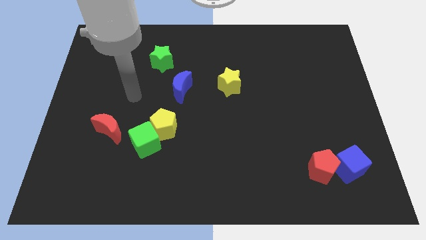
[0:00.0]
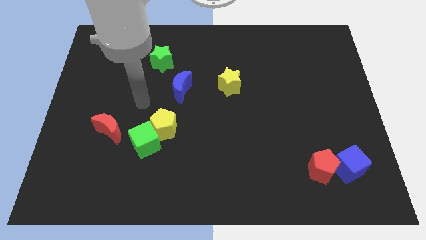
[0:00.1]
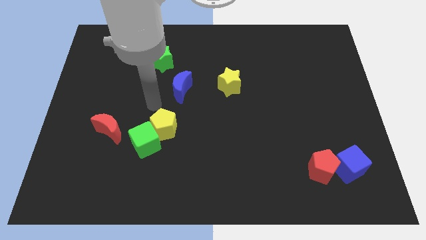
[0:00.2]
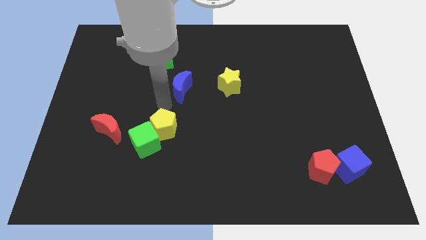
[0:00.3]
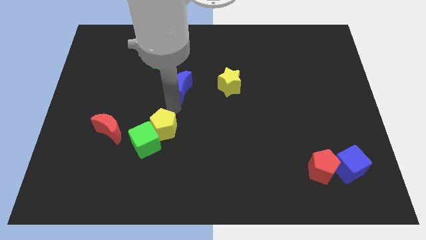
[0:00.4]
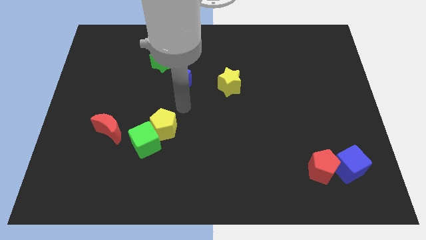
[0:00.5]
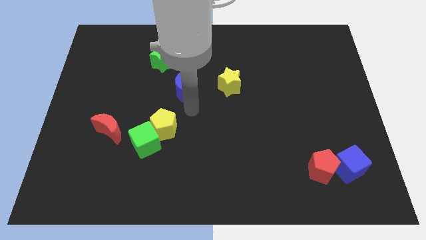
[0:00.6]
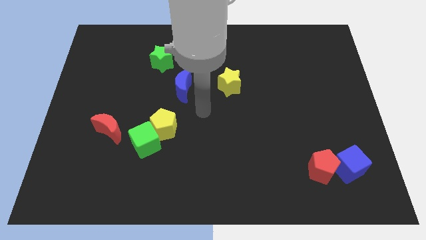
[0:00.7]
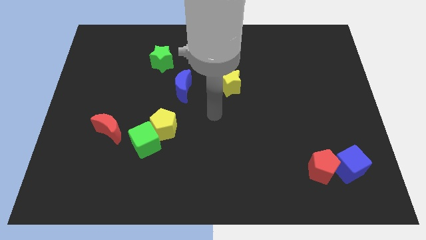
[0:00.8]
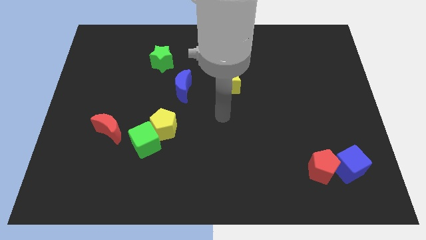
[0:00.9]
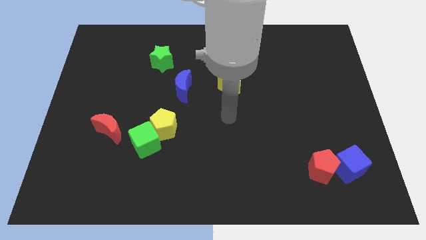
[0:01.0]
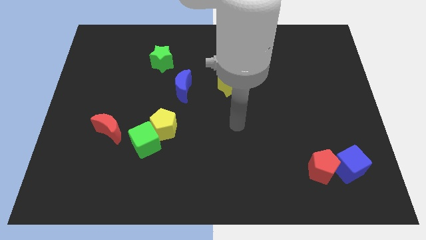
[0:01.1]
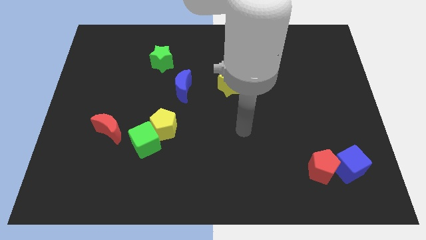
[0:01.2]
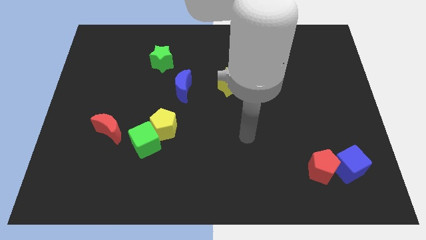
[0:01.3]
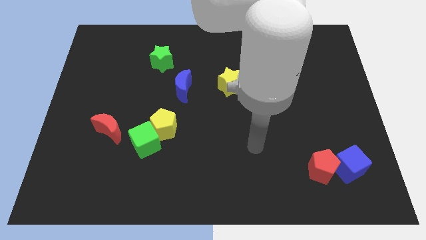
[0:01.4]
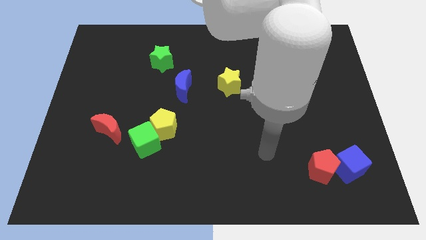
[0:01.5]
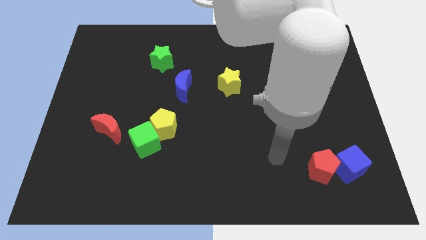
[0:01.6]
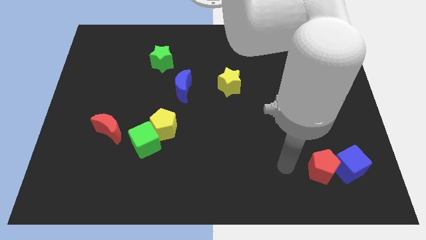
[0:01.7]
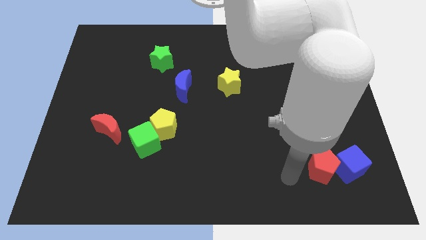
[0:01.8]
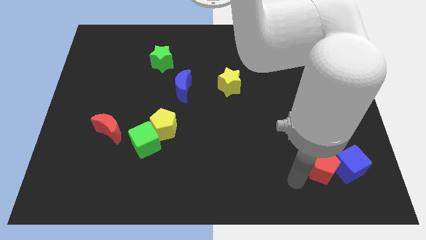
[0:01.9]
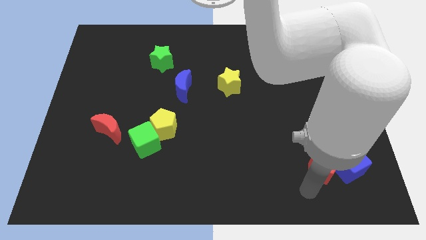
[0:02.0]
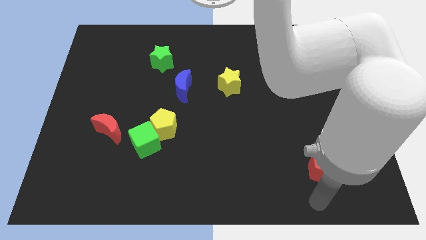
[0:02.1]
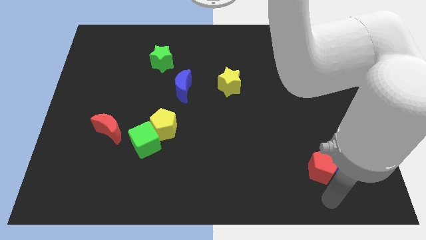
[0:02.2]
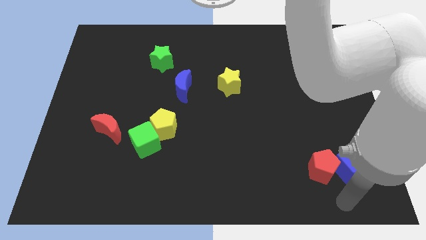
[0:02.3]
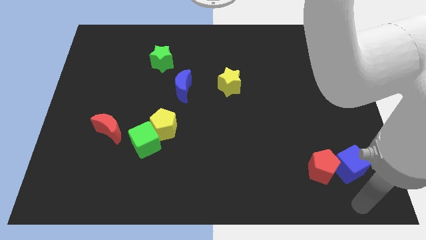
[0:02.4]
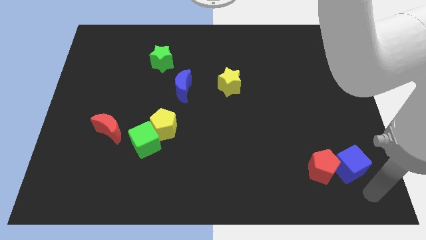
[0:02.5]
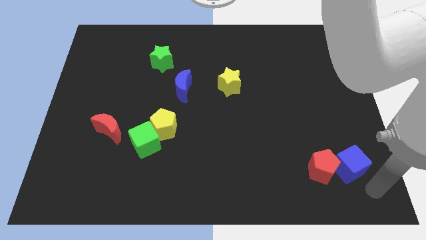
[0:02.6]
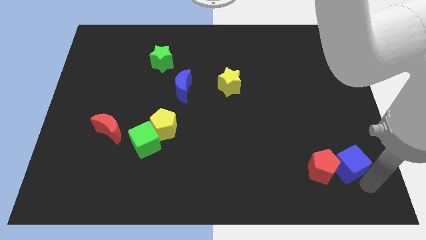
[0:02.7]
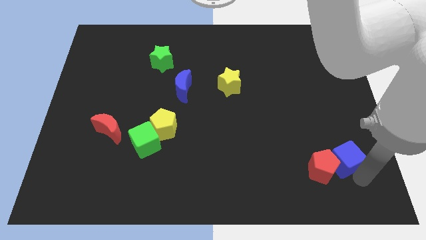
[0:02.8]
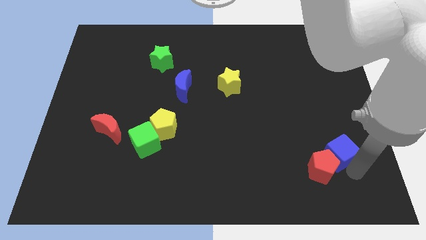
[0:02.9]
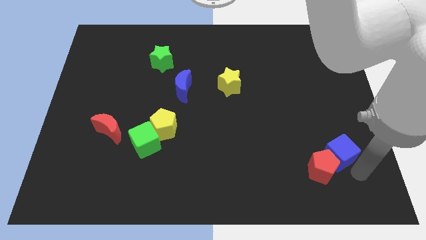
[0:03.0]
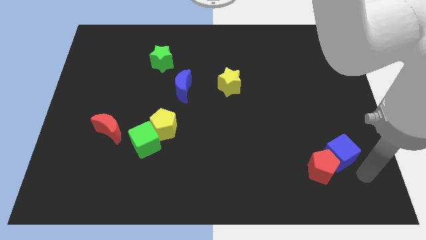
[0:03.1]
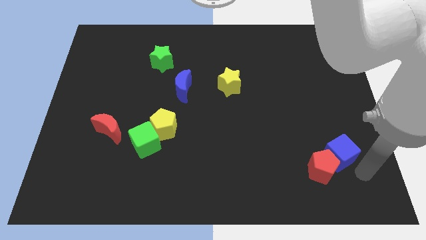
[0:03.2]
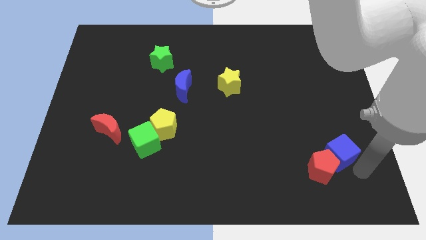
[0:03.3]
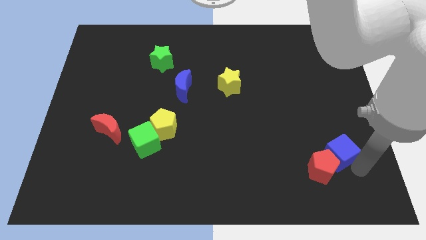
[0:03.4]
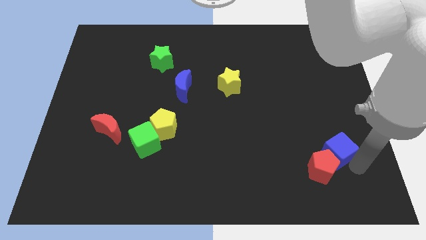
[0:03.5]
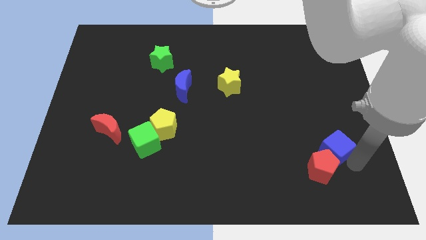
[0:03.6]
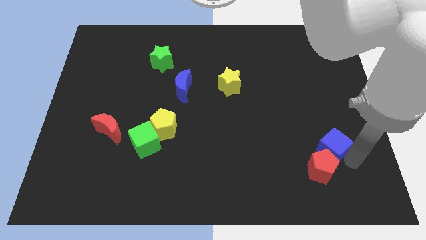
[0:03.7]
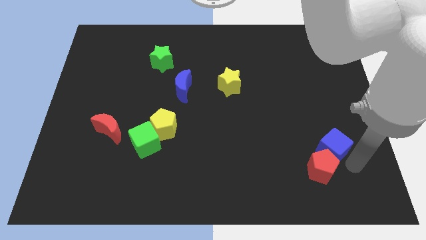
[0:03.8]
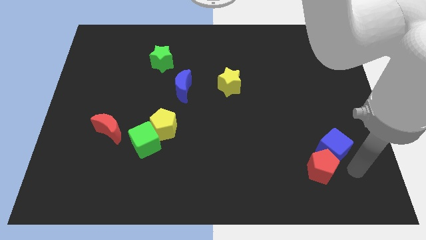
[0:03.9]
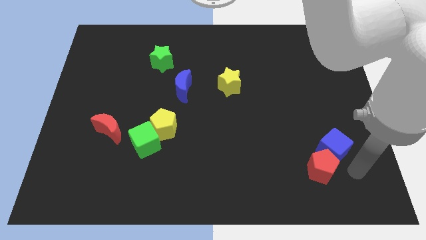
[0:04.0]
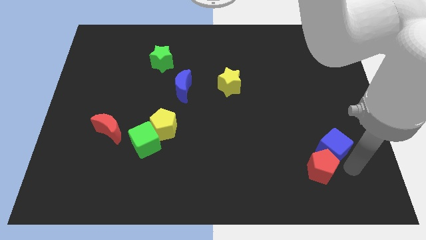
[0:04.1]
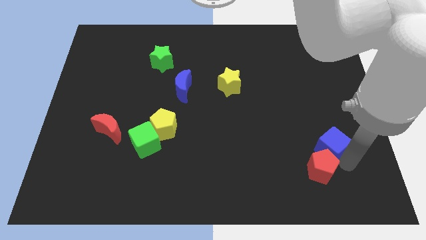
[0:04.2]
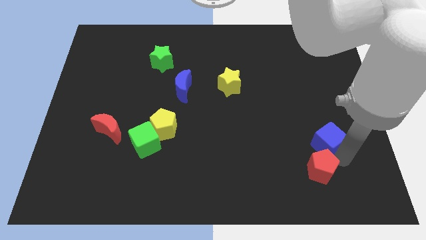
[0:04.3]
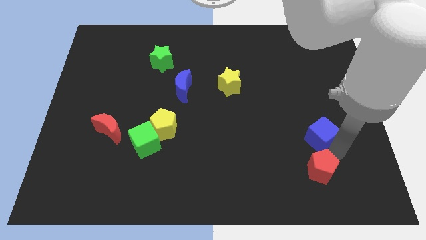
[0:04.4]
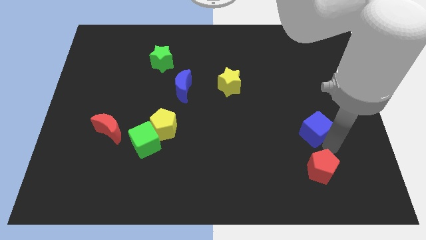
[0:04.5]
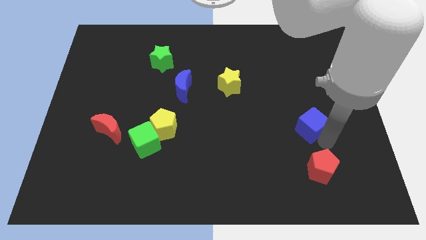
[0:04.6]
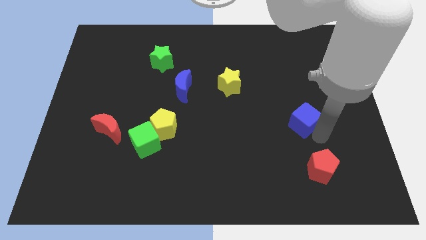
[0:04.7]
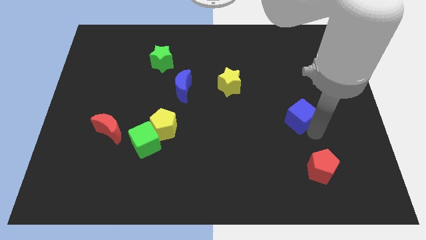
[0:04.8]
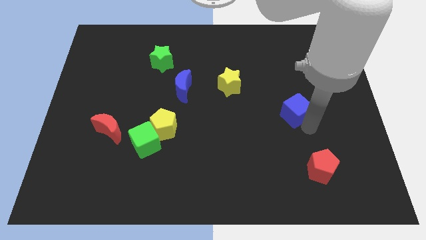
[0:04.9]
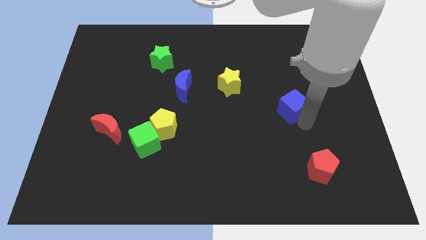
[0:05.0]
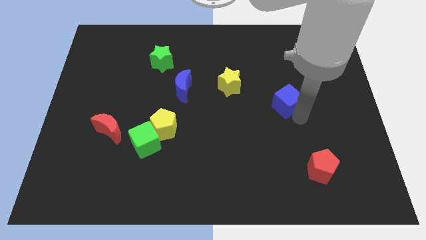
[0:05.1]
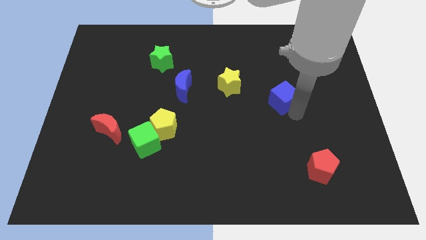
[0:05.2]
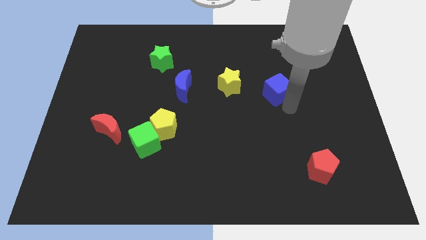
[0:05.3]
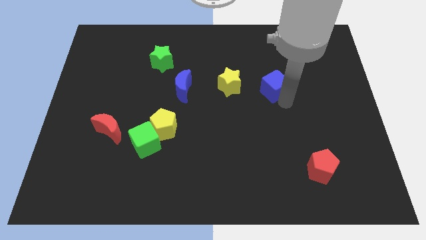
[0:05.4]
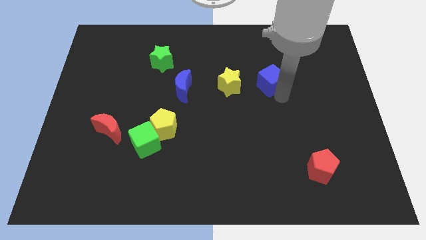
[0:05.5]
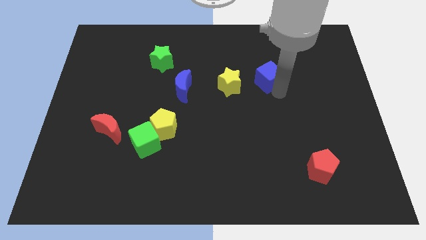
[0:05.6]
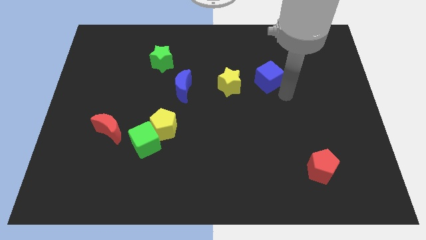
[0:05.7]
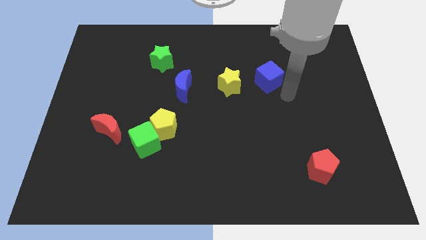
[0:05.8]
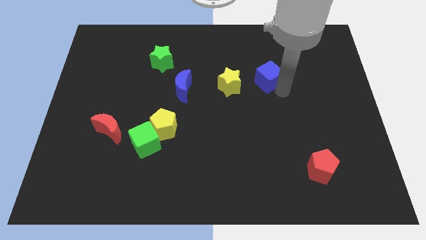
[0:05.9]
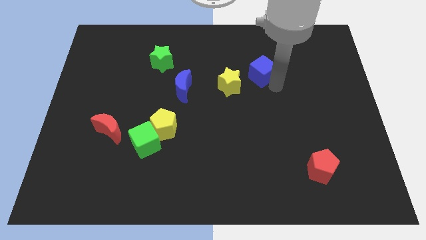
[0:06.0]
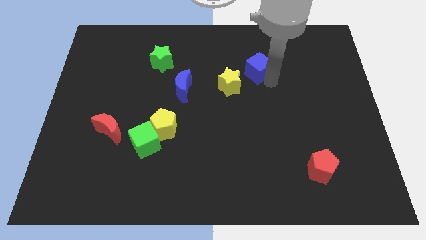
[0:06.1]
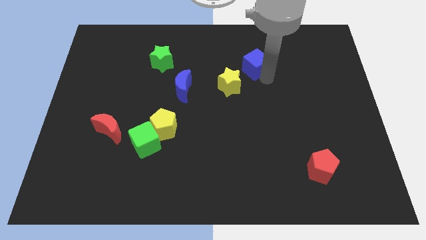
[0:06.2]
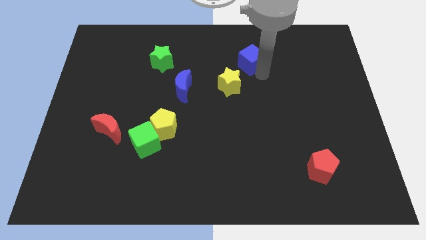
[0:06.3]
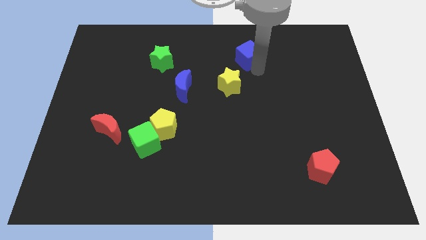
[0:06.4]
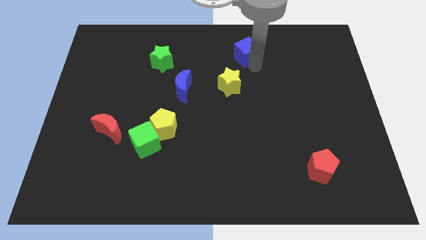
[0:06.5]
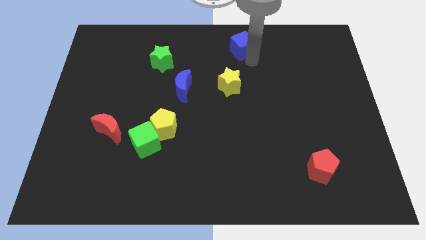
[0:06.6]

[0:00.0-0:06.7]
put the blue cube to the top
